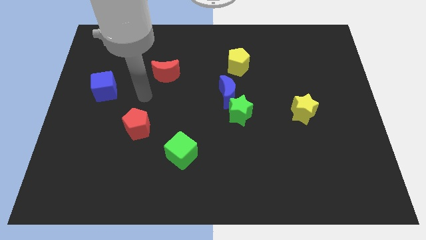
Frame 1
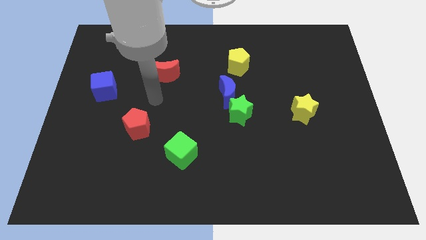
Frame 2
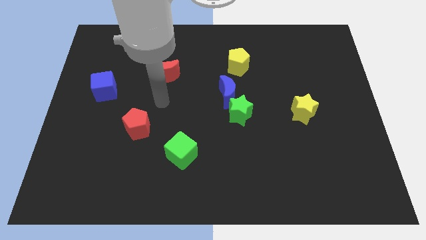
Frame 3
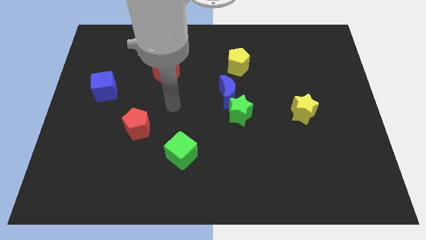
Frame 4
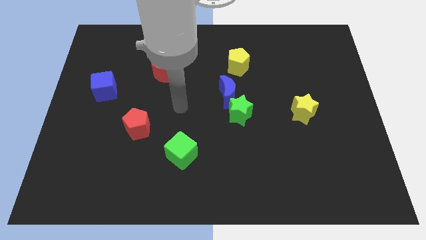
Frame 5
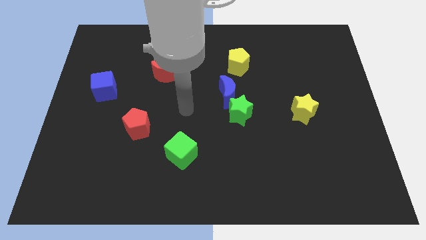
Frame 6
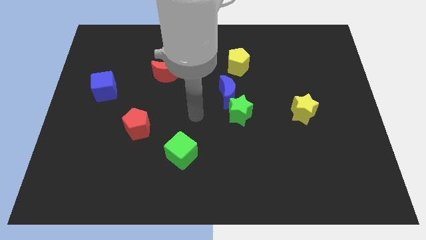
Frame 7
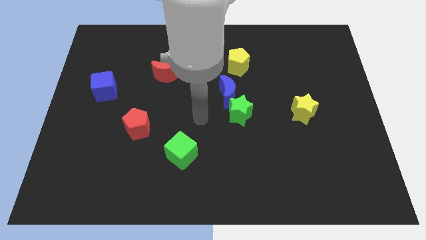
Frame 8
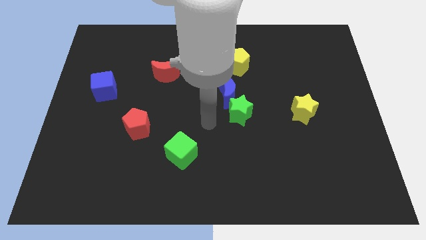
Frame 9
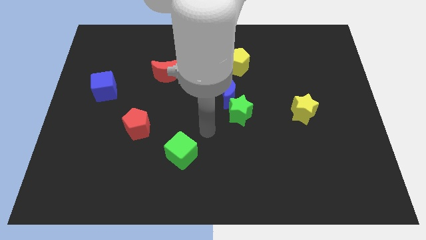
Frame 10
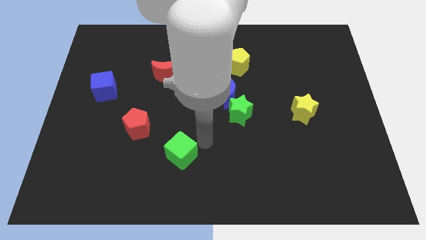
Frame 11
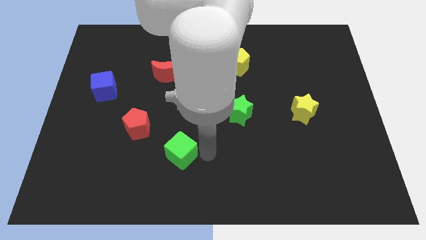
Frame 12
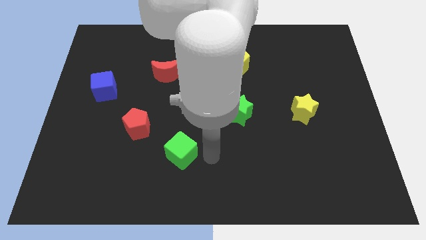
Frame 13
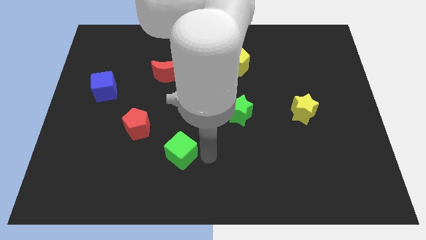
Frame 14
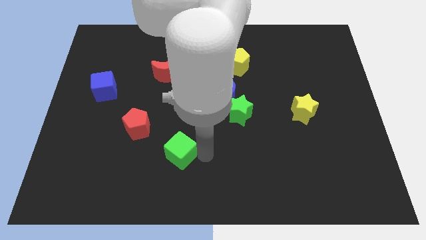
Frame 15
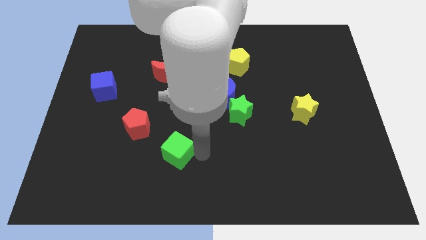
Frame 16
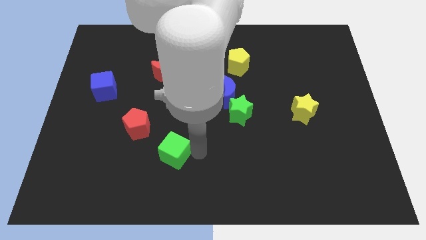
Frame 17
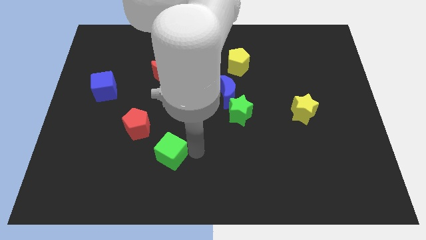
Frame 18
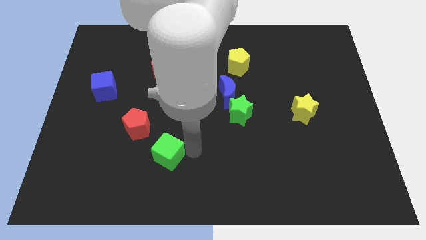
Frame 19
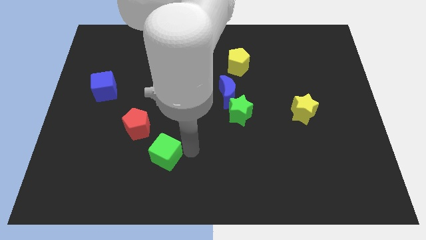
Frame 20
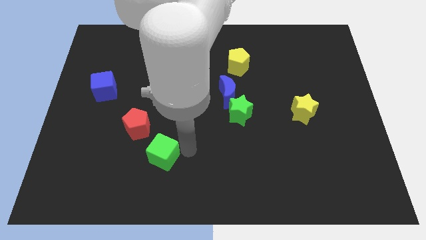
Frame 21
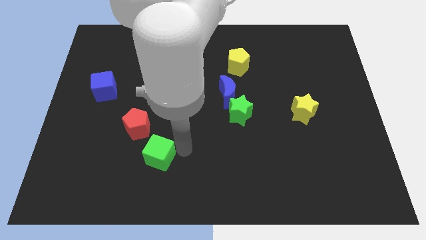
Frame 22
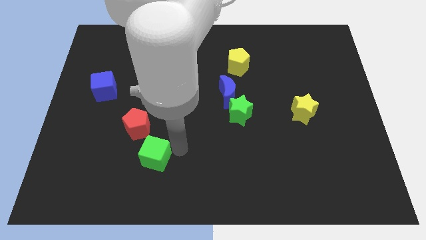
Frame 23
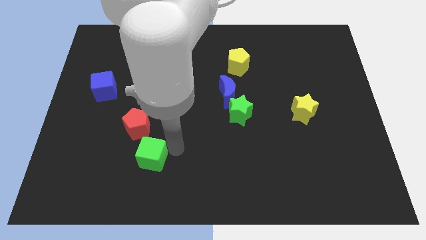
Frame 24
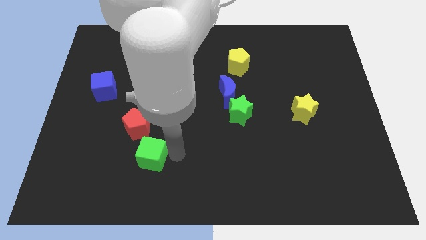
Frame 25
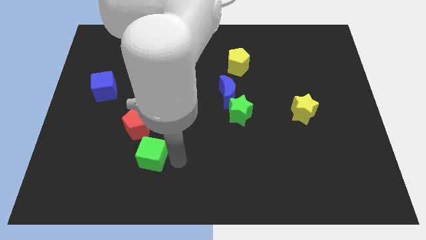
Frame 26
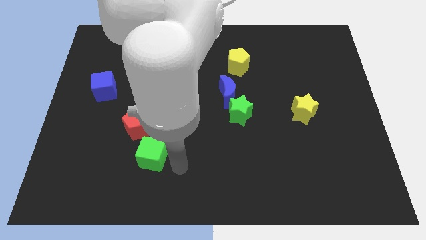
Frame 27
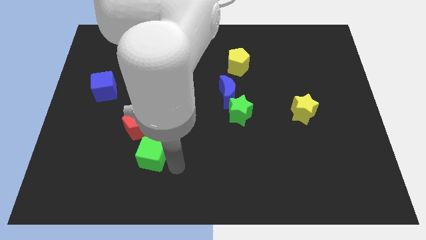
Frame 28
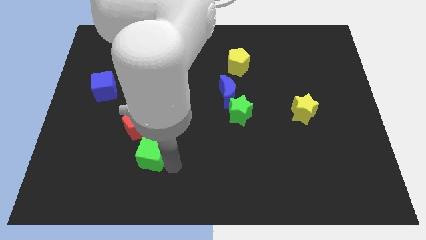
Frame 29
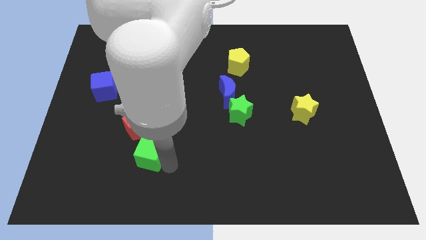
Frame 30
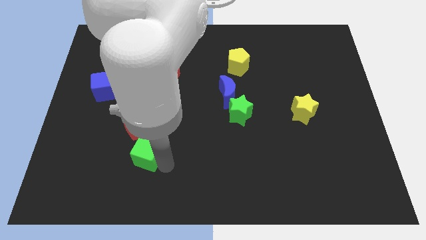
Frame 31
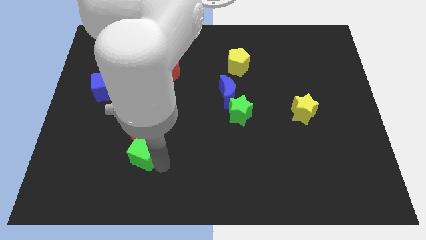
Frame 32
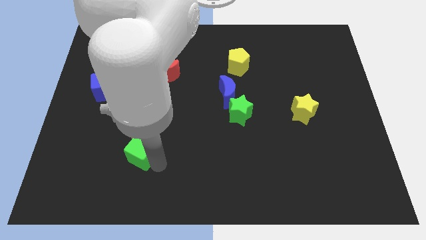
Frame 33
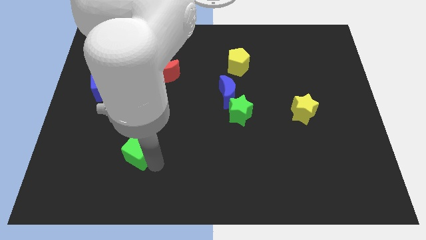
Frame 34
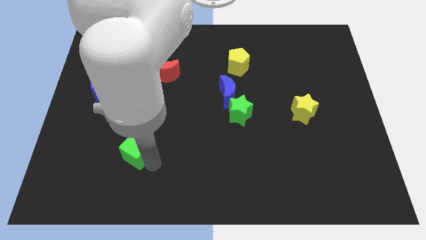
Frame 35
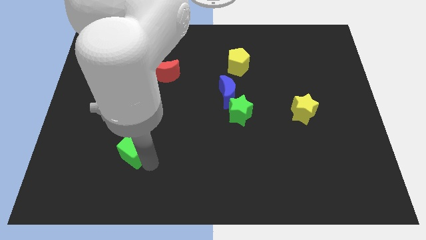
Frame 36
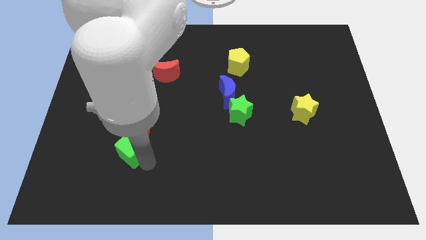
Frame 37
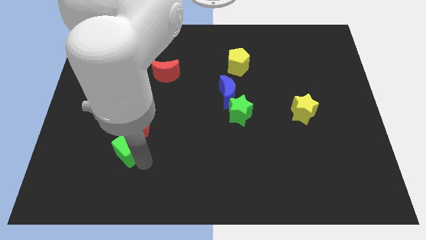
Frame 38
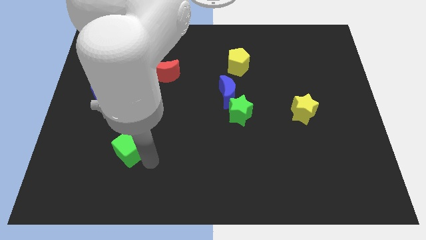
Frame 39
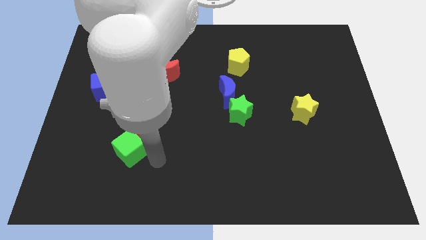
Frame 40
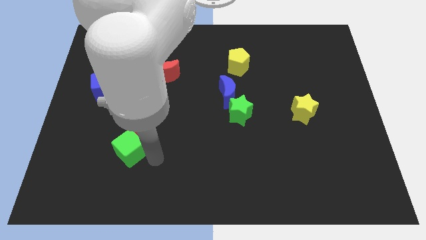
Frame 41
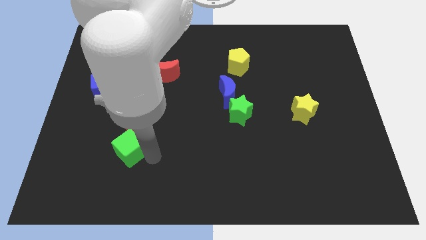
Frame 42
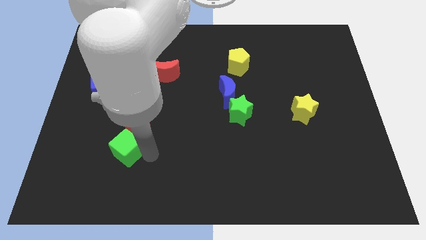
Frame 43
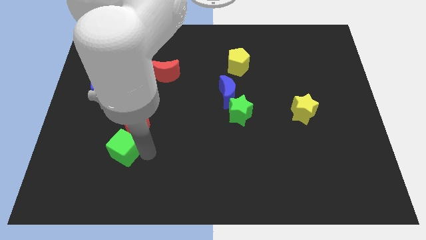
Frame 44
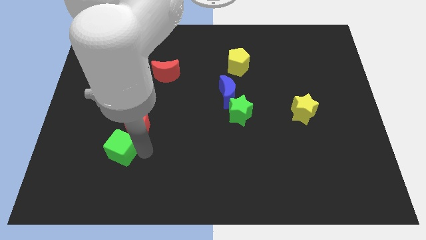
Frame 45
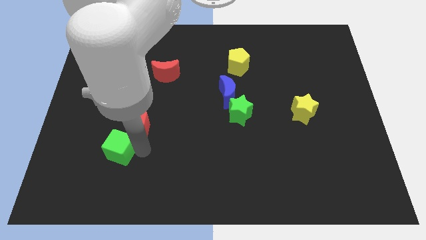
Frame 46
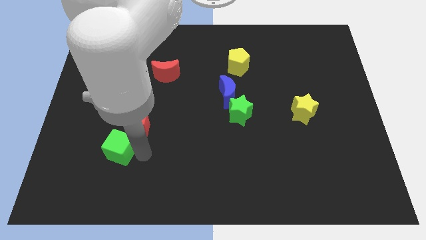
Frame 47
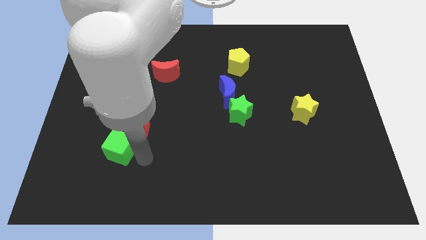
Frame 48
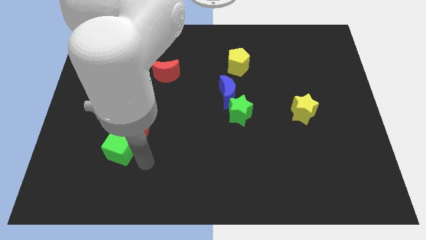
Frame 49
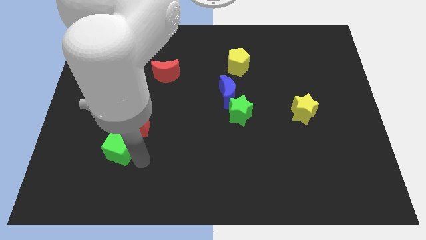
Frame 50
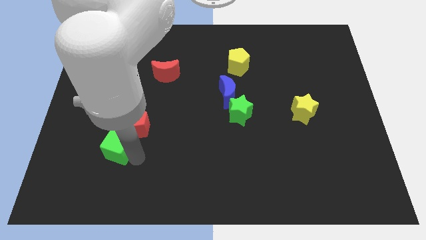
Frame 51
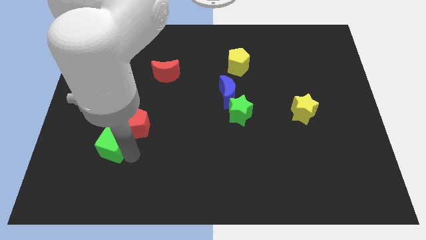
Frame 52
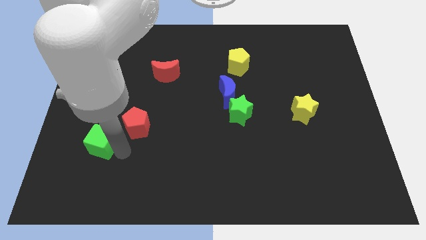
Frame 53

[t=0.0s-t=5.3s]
push the green cube just left of the red pentagon

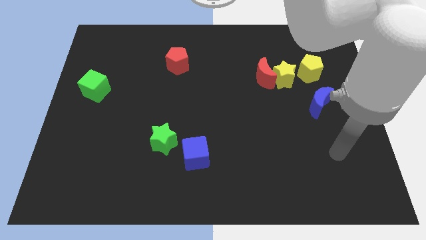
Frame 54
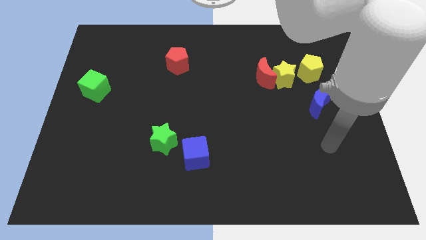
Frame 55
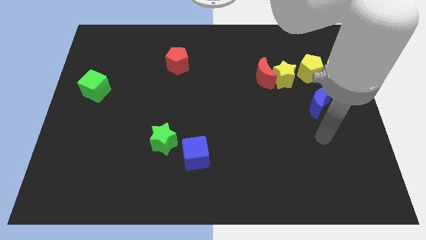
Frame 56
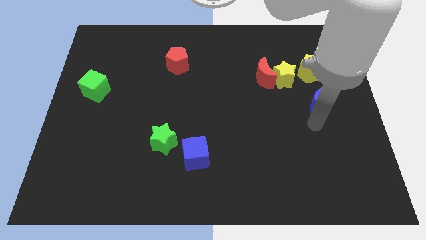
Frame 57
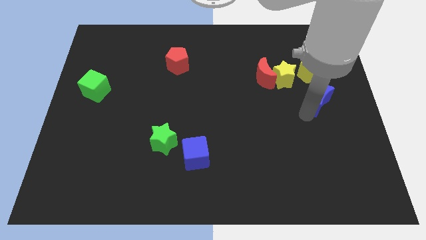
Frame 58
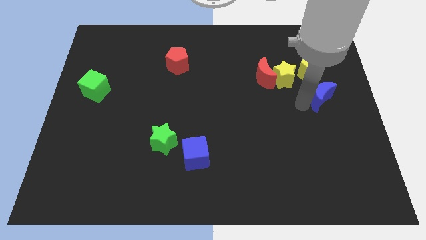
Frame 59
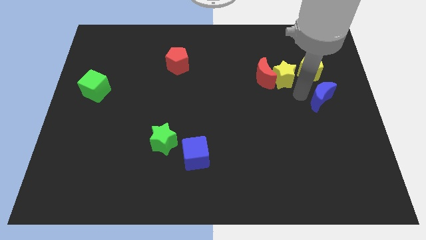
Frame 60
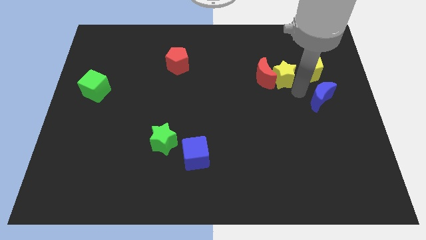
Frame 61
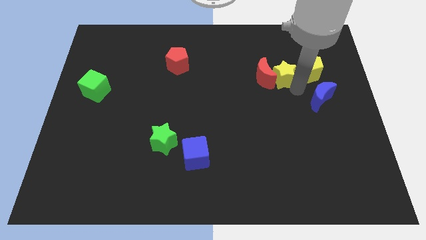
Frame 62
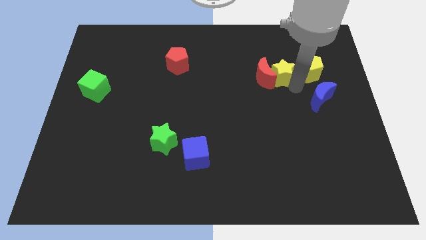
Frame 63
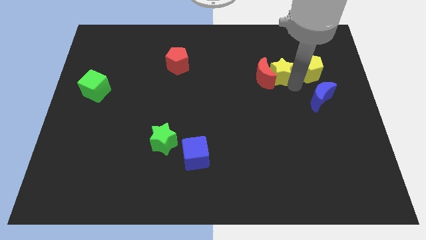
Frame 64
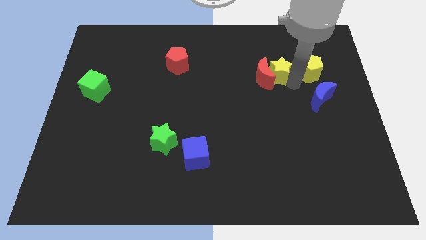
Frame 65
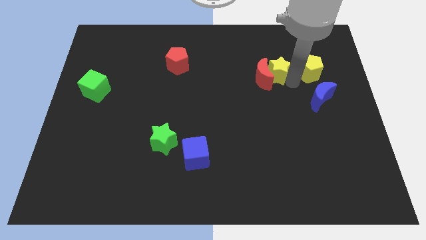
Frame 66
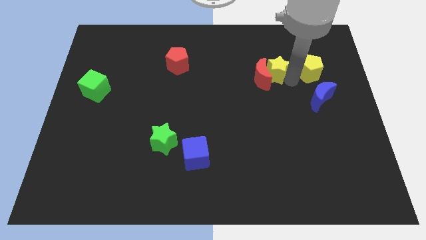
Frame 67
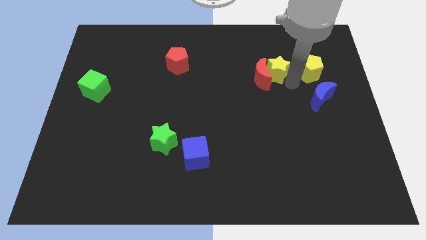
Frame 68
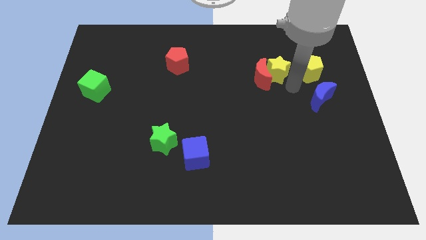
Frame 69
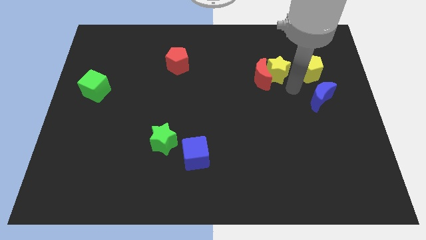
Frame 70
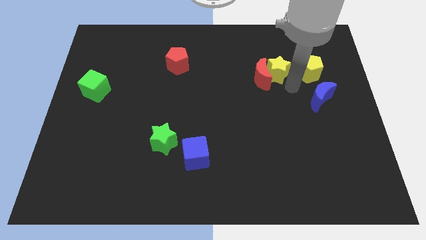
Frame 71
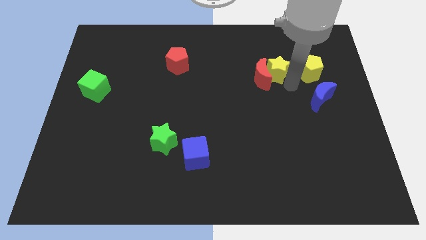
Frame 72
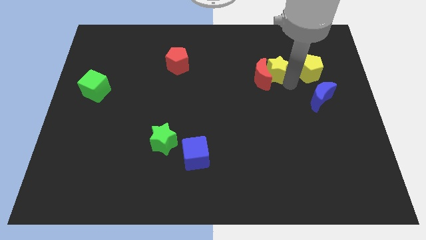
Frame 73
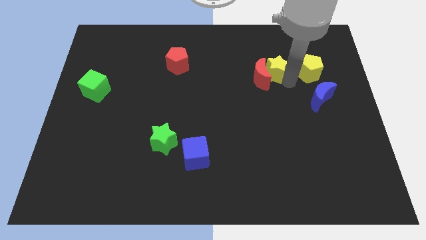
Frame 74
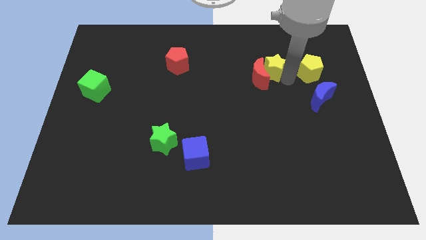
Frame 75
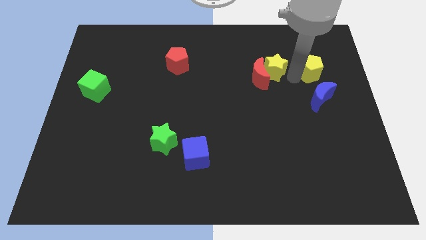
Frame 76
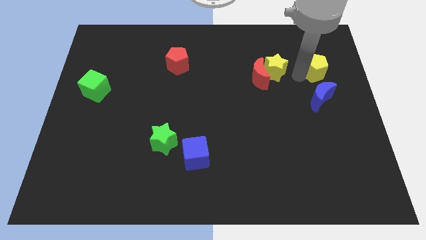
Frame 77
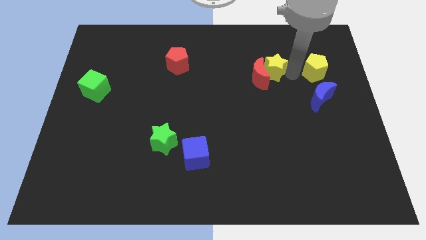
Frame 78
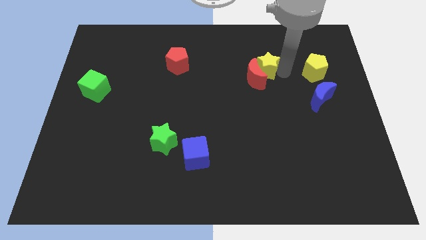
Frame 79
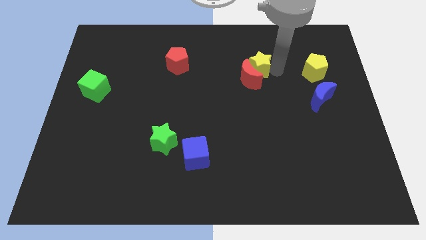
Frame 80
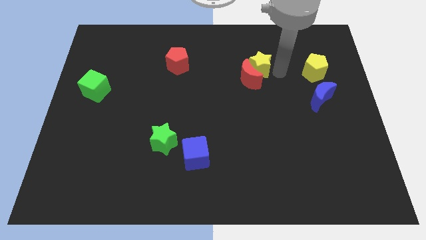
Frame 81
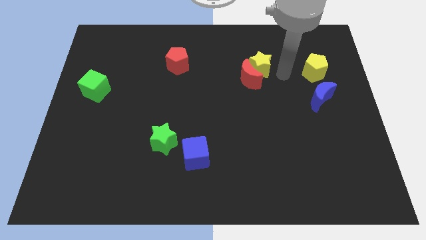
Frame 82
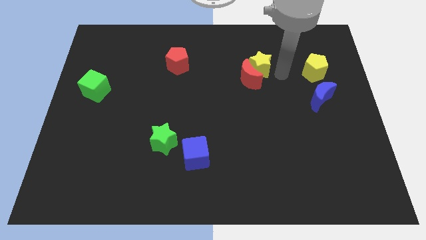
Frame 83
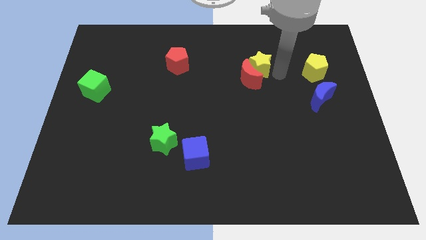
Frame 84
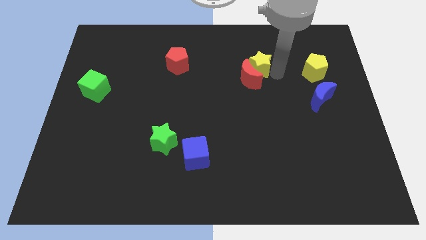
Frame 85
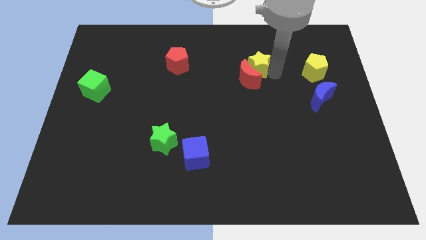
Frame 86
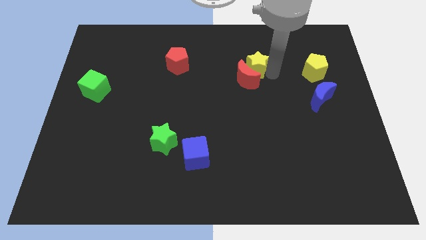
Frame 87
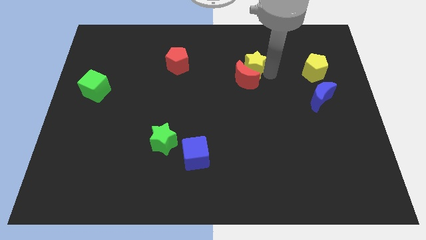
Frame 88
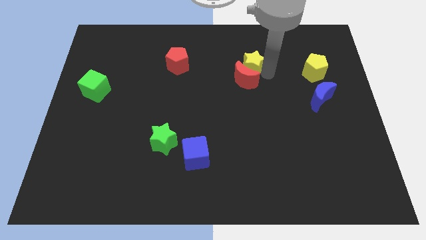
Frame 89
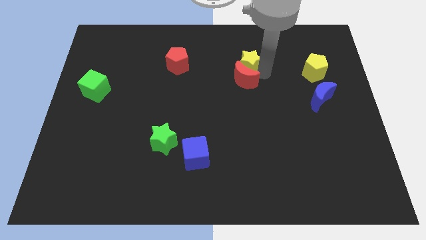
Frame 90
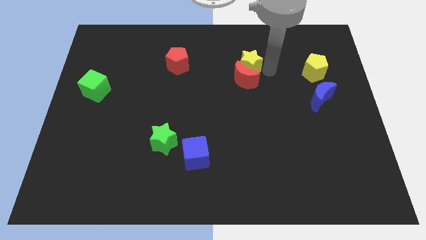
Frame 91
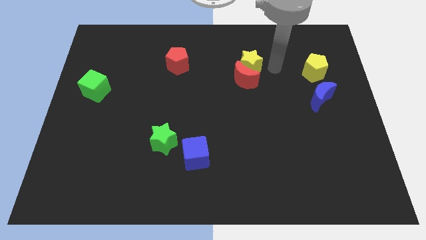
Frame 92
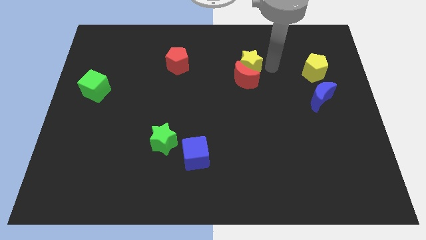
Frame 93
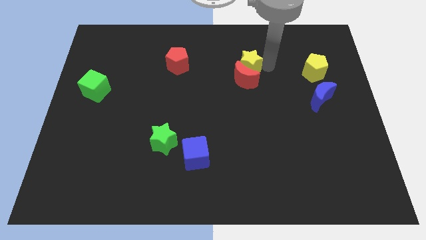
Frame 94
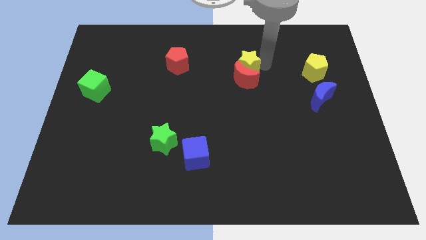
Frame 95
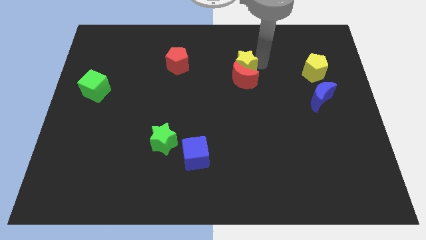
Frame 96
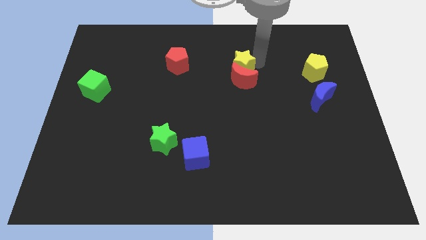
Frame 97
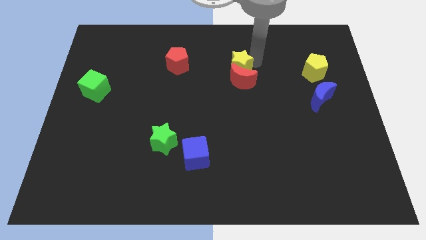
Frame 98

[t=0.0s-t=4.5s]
move the yellow star to the right of the red pentagon
